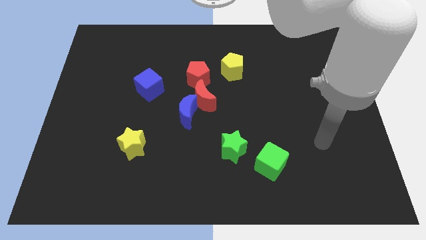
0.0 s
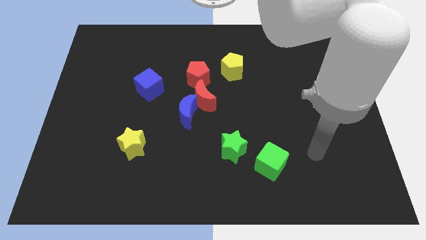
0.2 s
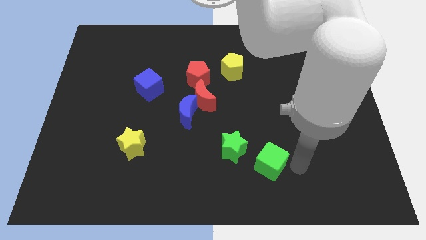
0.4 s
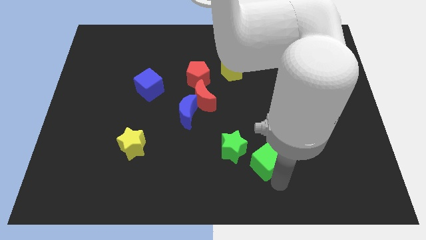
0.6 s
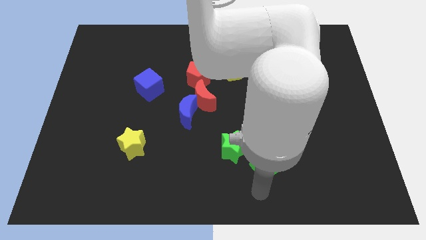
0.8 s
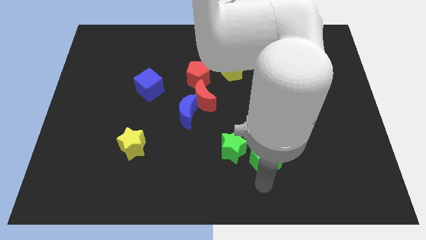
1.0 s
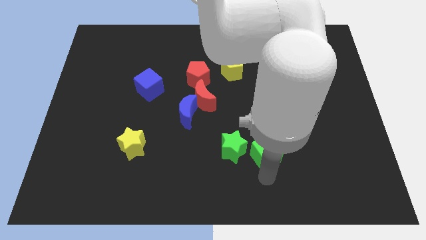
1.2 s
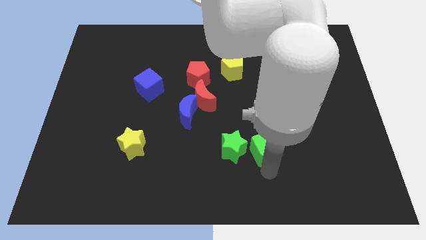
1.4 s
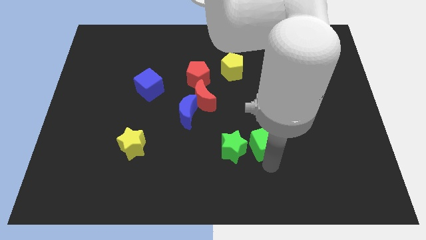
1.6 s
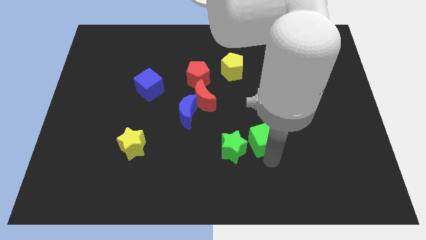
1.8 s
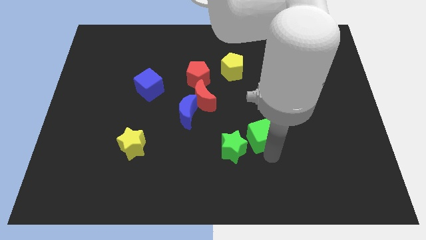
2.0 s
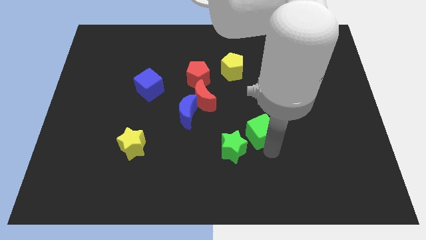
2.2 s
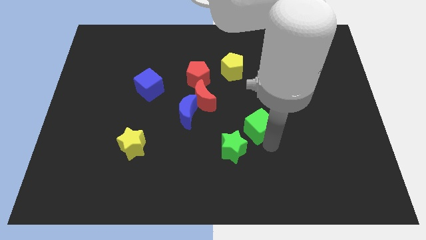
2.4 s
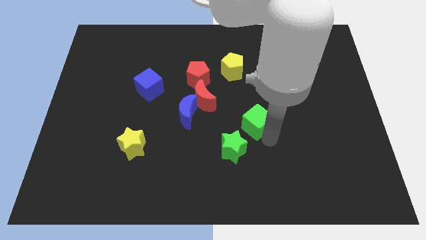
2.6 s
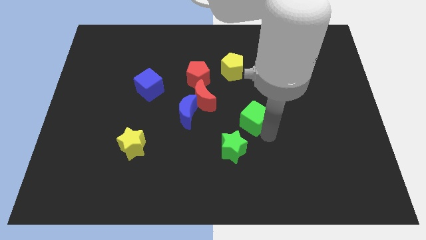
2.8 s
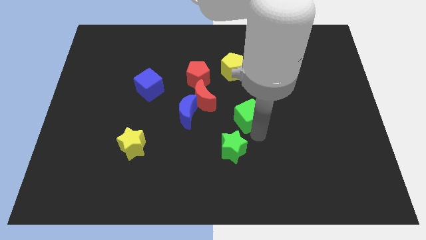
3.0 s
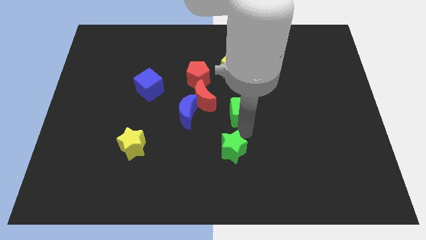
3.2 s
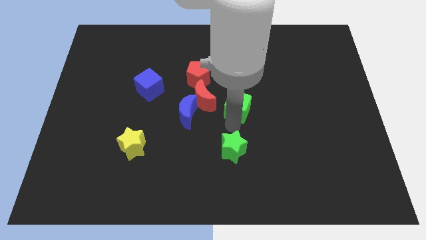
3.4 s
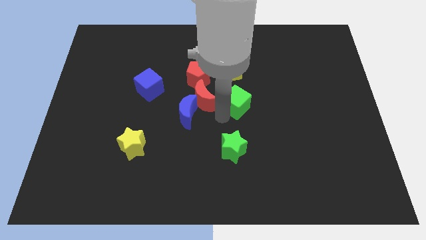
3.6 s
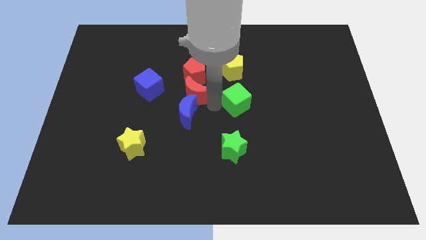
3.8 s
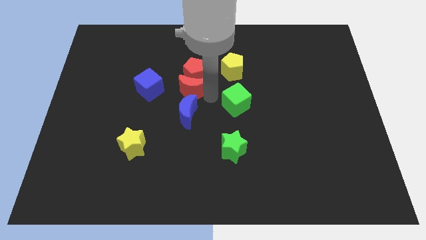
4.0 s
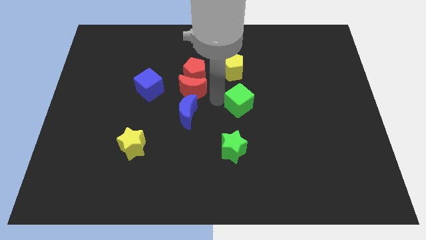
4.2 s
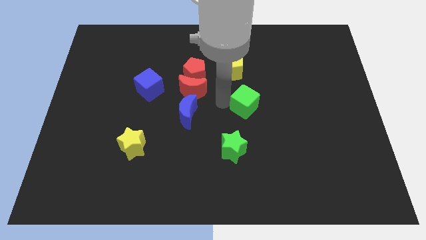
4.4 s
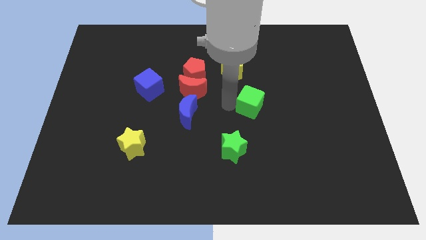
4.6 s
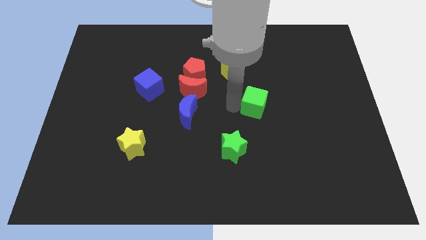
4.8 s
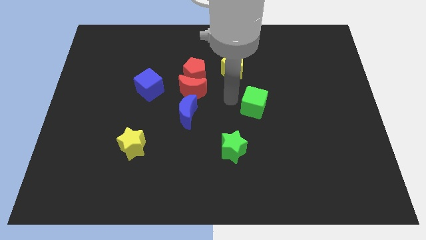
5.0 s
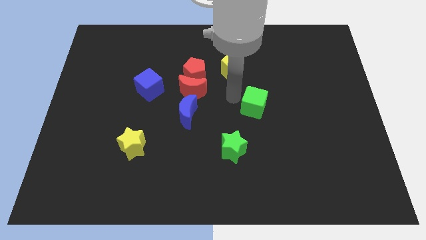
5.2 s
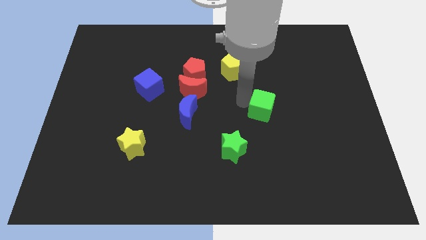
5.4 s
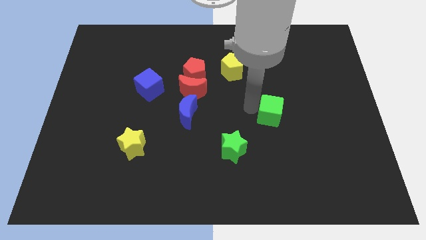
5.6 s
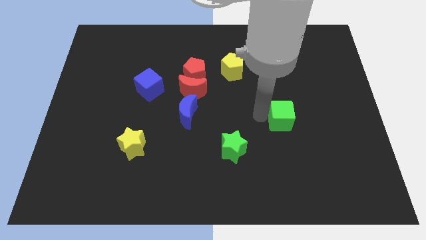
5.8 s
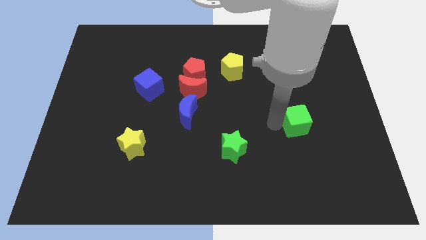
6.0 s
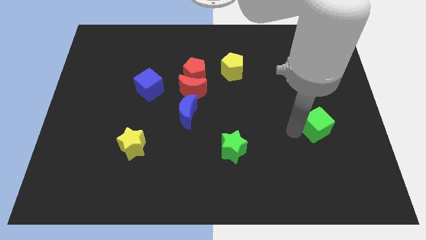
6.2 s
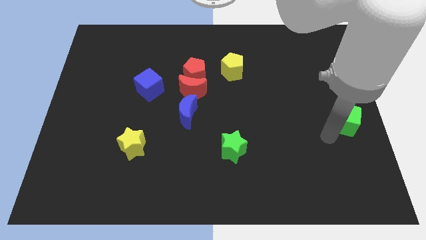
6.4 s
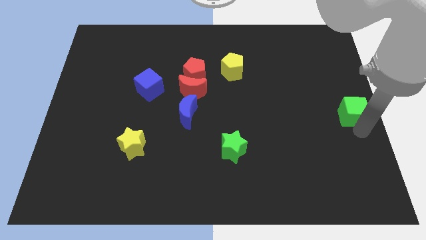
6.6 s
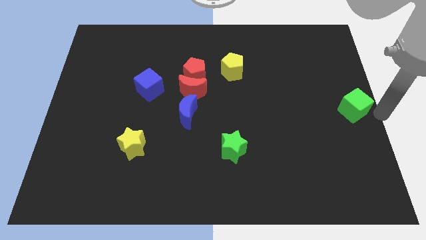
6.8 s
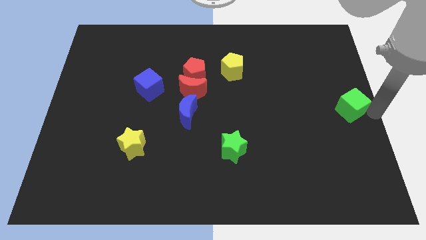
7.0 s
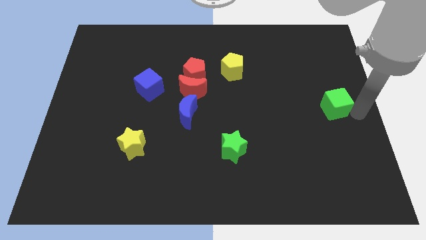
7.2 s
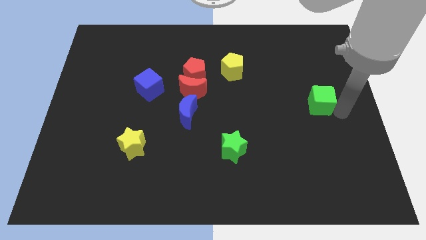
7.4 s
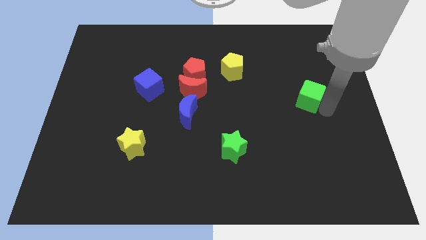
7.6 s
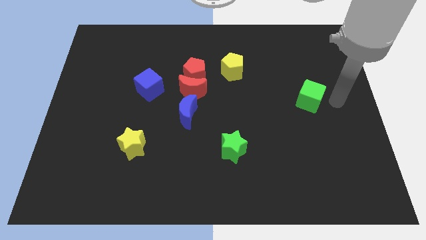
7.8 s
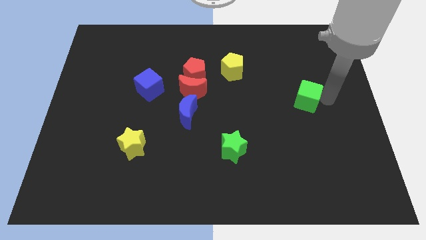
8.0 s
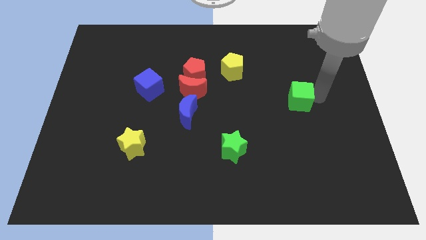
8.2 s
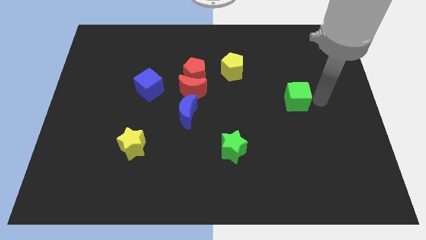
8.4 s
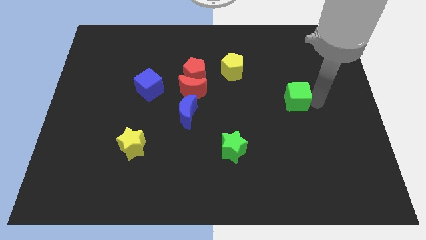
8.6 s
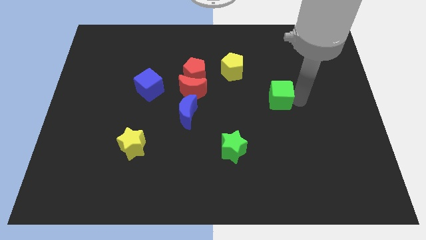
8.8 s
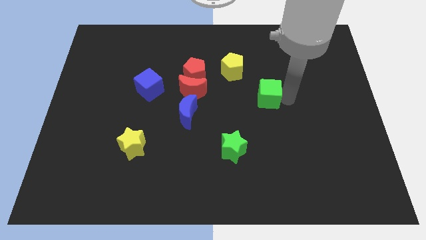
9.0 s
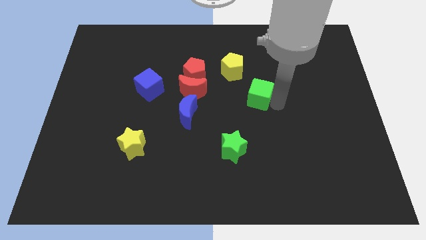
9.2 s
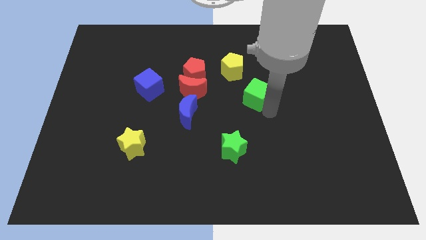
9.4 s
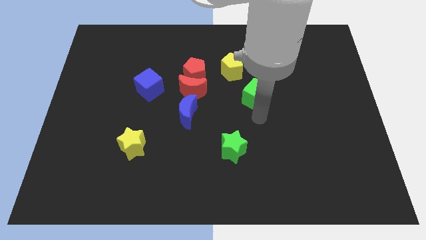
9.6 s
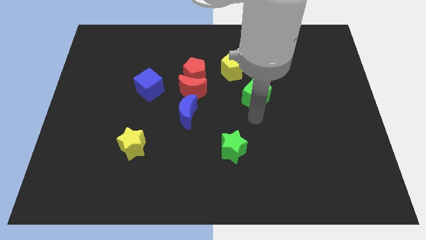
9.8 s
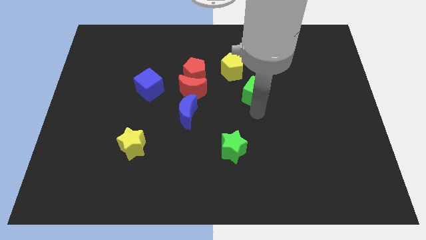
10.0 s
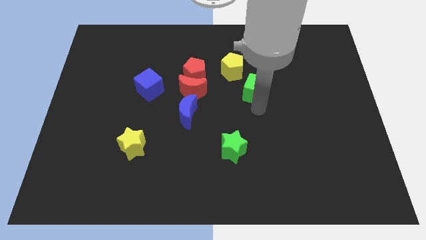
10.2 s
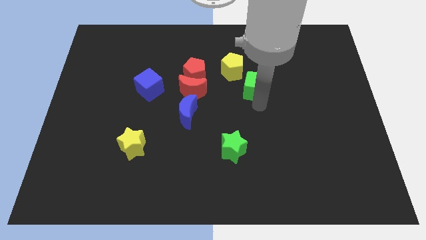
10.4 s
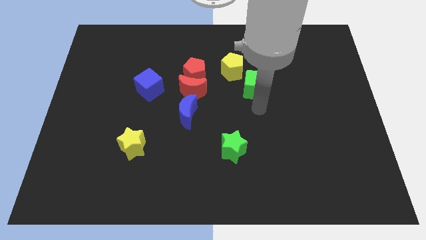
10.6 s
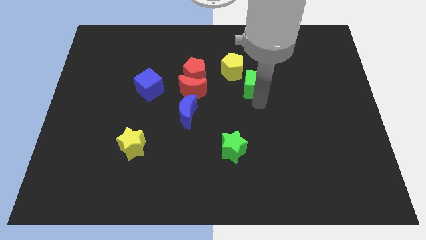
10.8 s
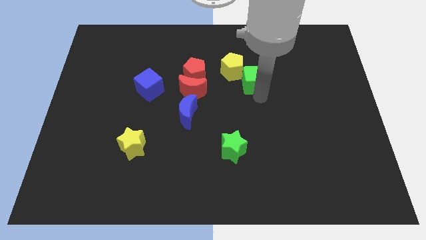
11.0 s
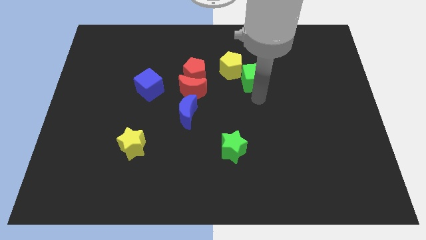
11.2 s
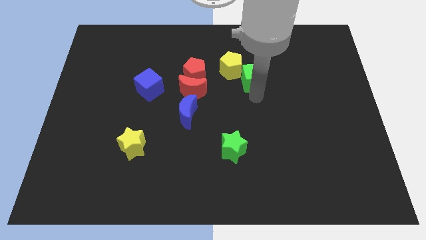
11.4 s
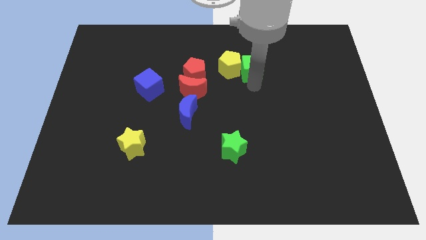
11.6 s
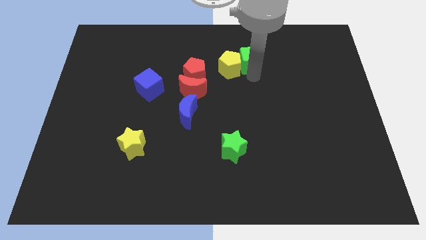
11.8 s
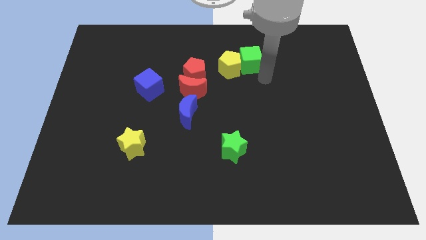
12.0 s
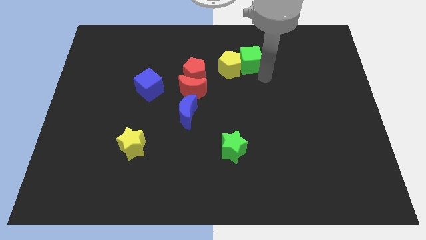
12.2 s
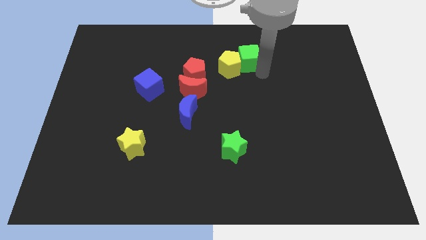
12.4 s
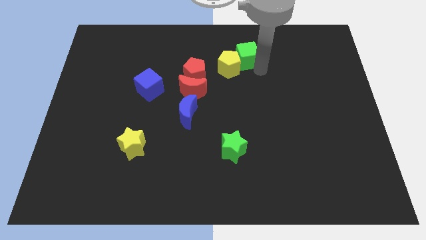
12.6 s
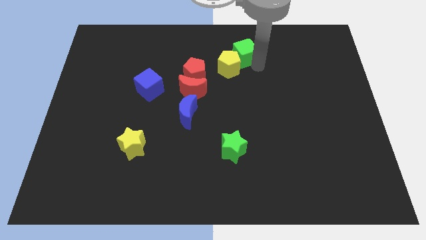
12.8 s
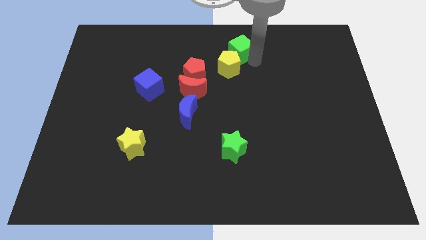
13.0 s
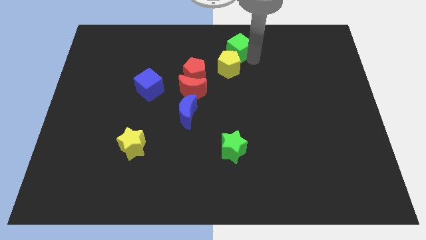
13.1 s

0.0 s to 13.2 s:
slide the green cube to the top side

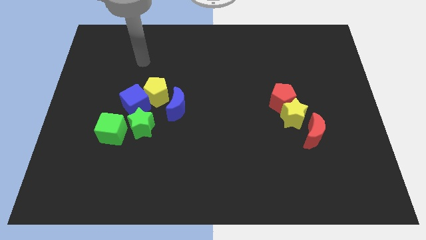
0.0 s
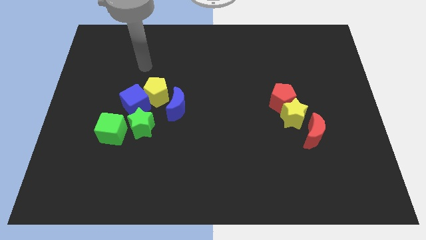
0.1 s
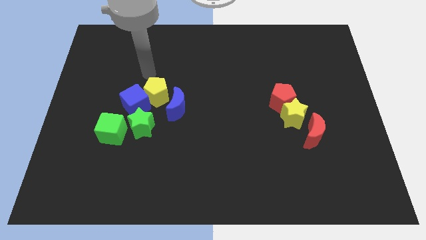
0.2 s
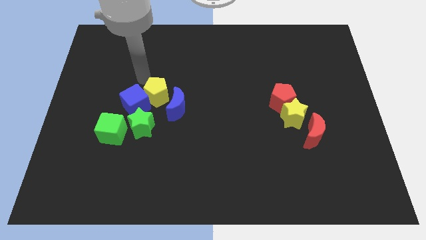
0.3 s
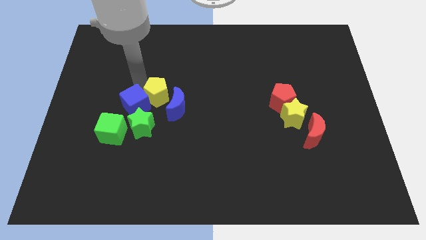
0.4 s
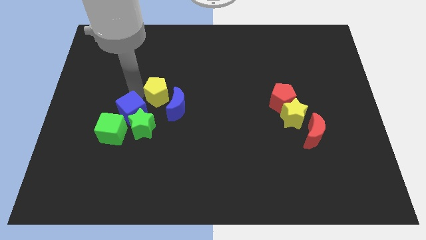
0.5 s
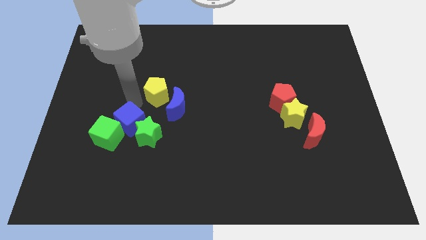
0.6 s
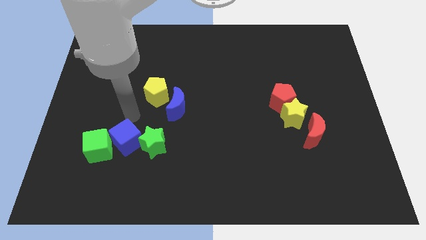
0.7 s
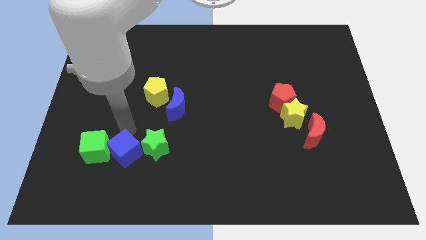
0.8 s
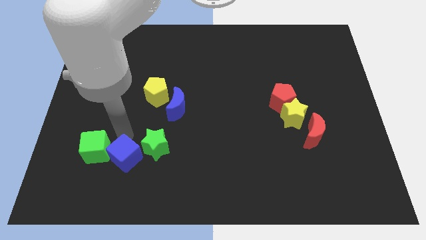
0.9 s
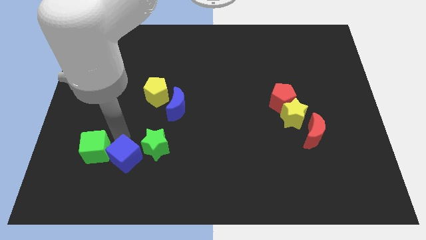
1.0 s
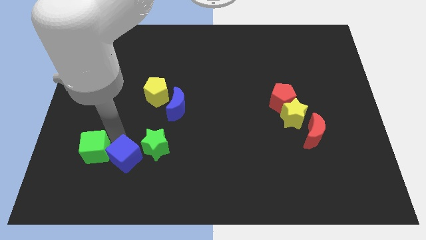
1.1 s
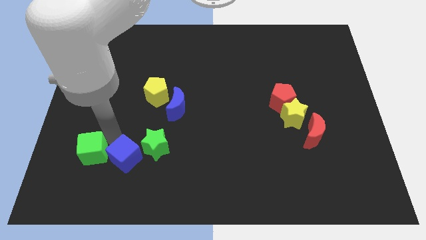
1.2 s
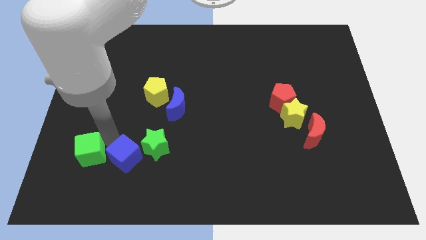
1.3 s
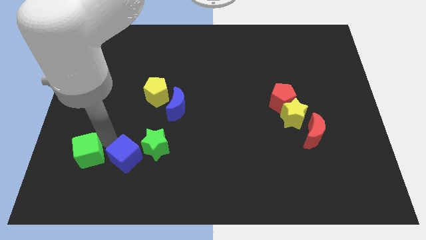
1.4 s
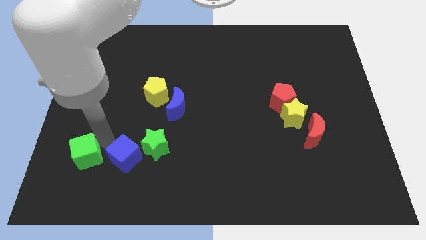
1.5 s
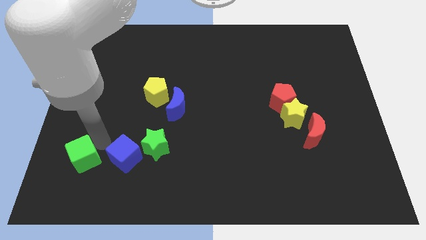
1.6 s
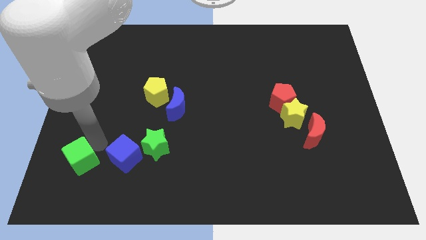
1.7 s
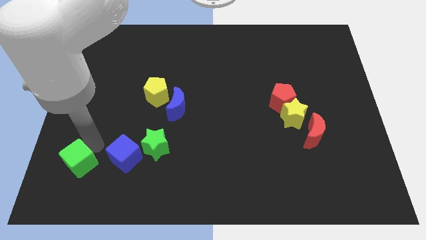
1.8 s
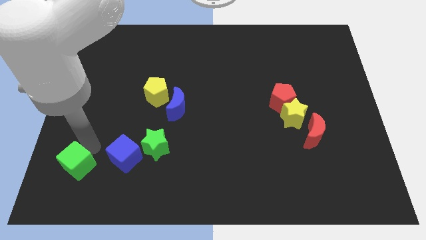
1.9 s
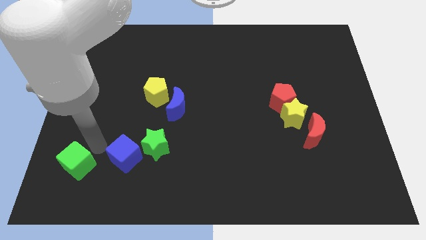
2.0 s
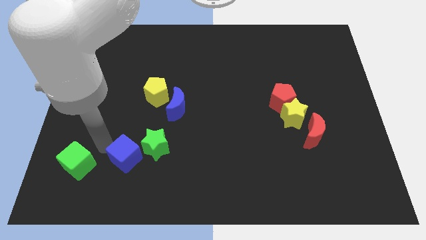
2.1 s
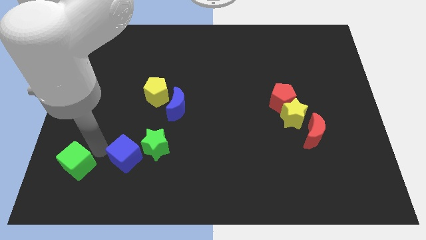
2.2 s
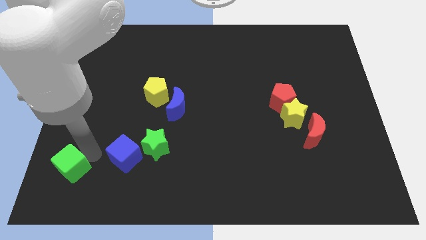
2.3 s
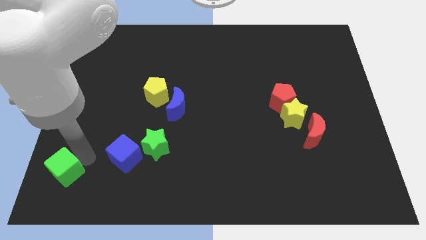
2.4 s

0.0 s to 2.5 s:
move the green cube to the bottom left
